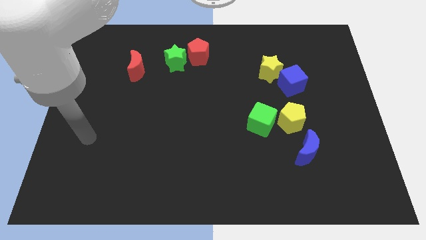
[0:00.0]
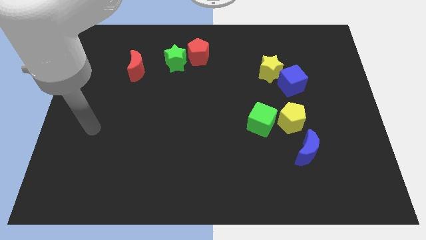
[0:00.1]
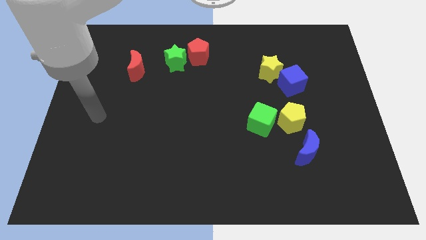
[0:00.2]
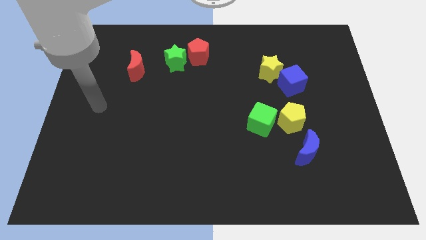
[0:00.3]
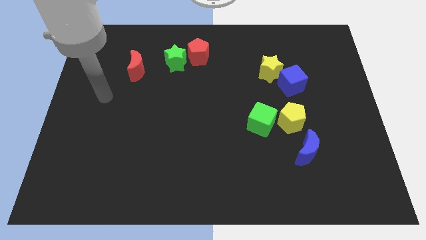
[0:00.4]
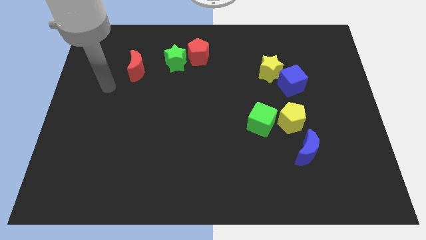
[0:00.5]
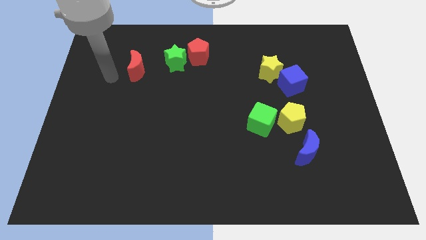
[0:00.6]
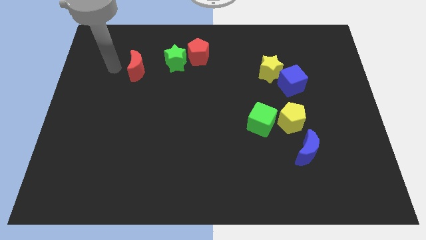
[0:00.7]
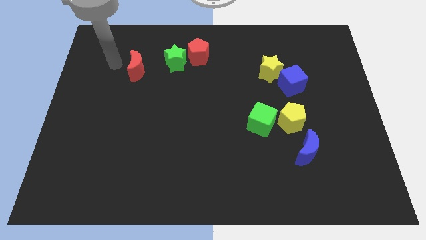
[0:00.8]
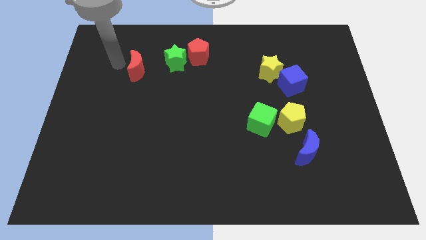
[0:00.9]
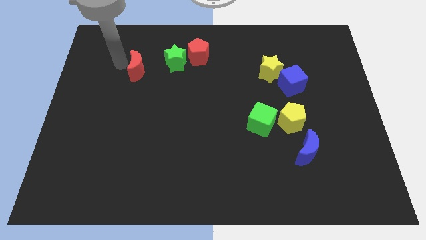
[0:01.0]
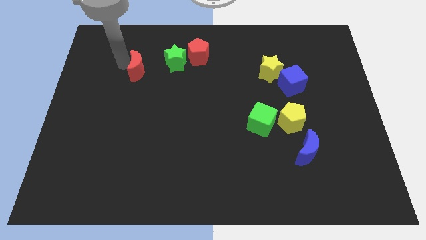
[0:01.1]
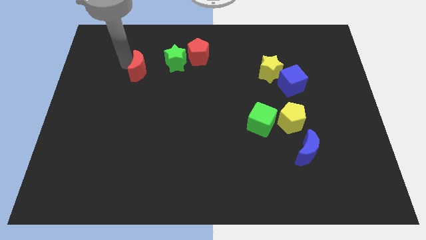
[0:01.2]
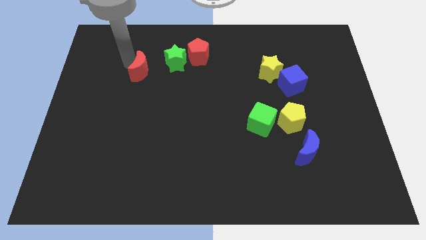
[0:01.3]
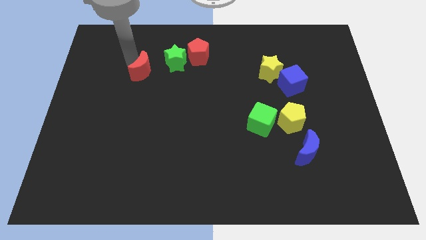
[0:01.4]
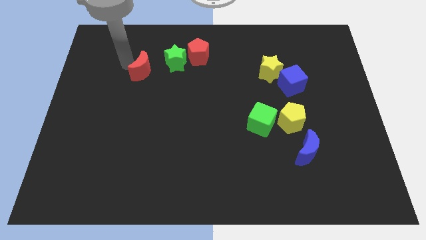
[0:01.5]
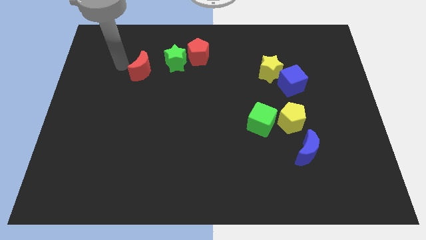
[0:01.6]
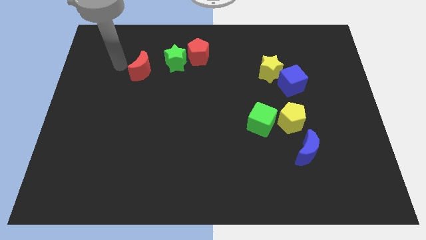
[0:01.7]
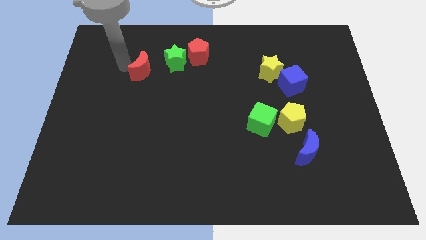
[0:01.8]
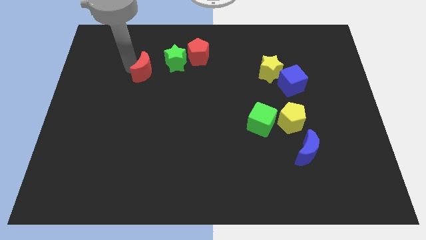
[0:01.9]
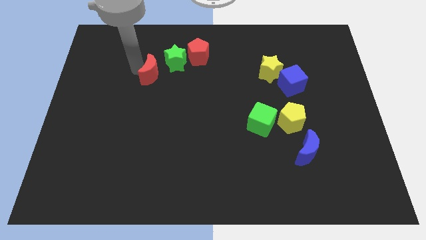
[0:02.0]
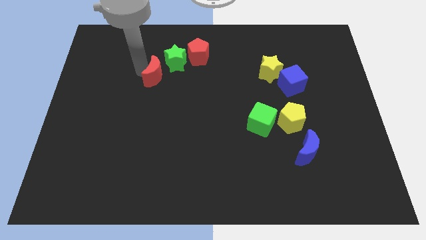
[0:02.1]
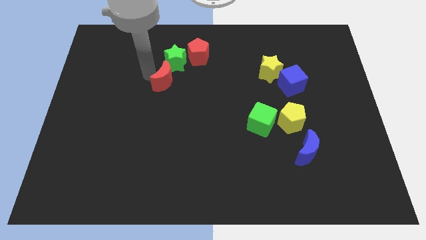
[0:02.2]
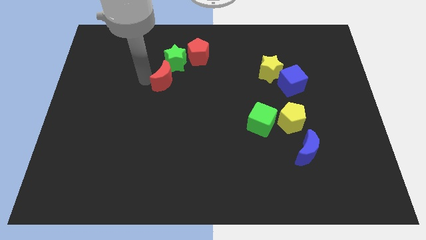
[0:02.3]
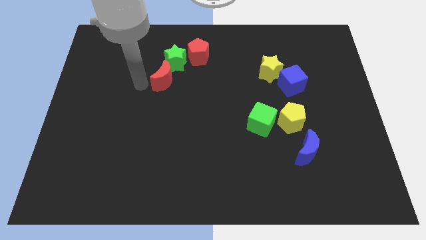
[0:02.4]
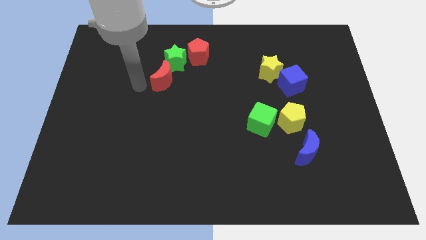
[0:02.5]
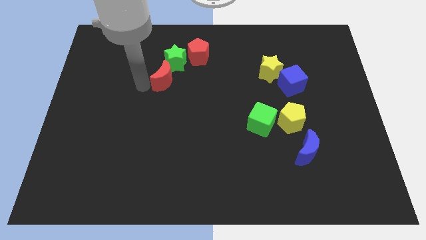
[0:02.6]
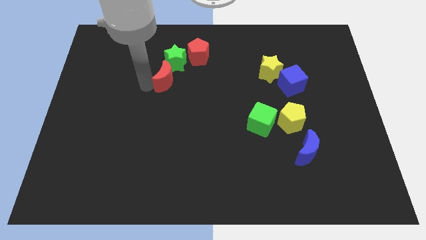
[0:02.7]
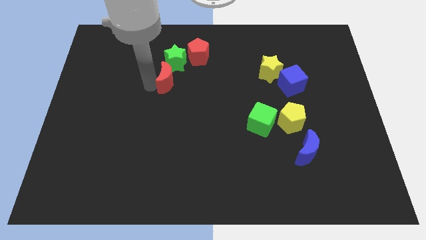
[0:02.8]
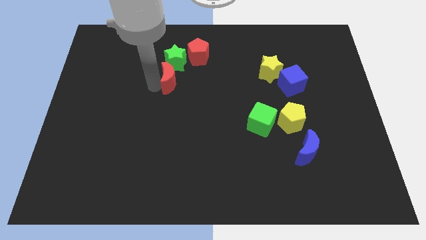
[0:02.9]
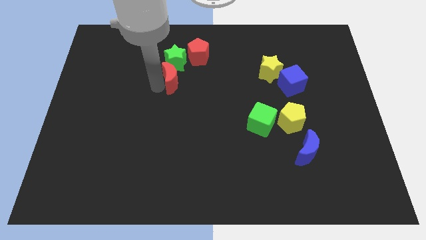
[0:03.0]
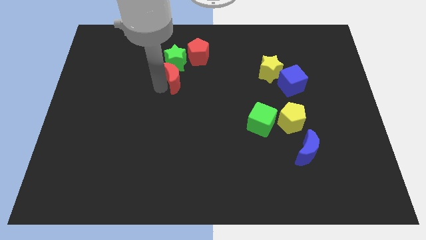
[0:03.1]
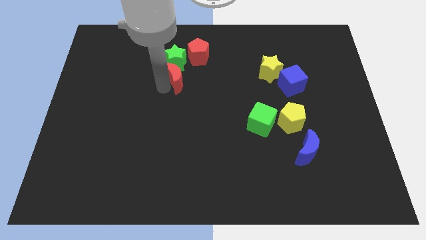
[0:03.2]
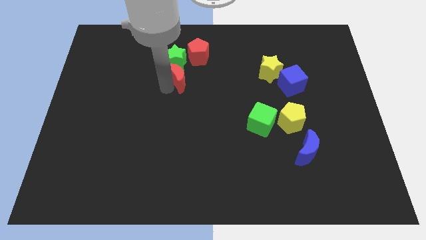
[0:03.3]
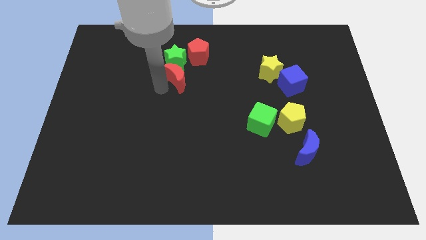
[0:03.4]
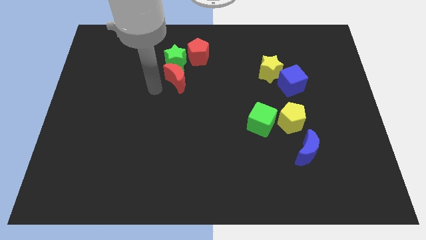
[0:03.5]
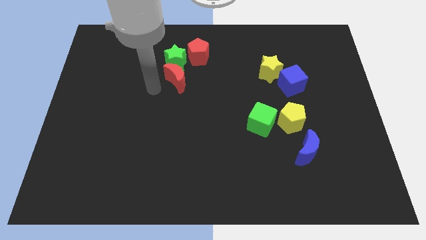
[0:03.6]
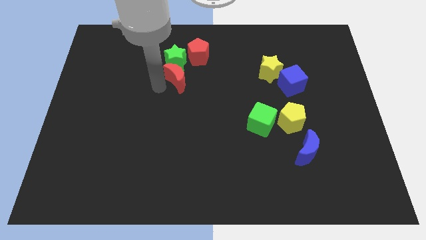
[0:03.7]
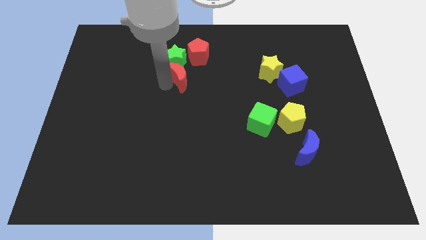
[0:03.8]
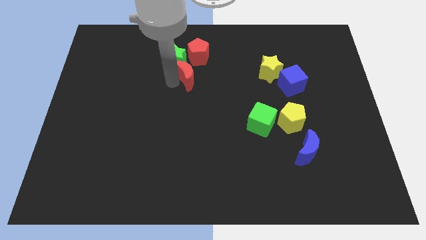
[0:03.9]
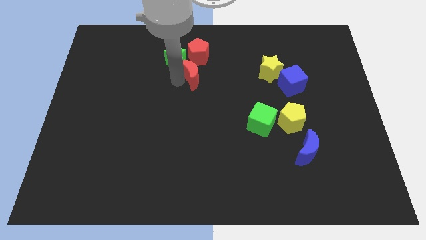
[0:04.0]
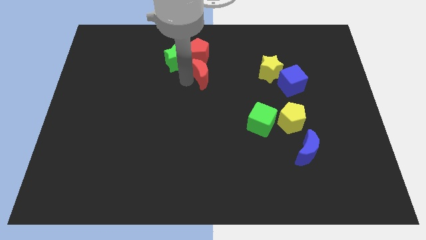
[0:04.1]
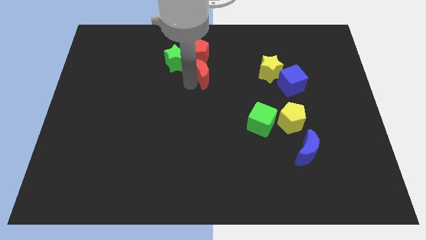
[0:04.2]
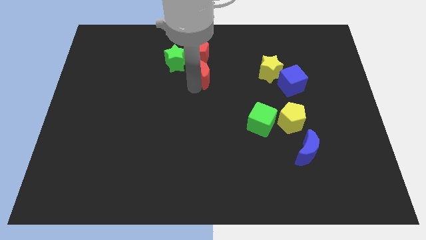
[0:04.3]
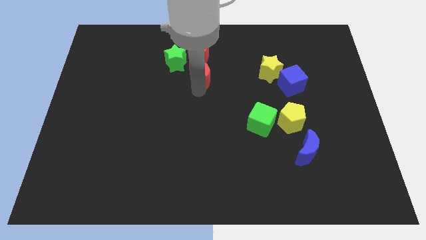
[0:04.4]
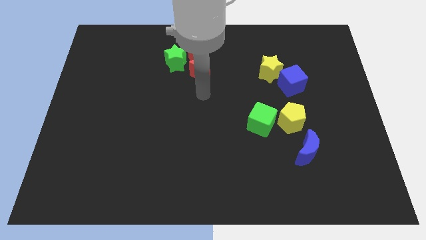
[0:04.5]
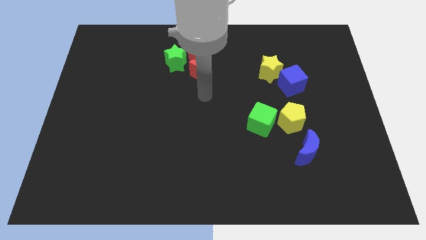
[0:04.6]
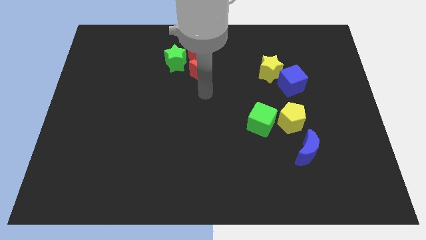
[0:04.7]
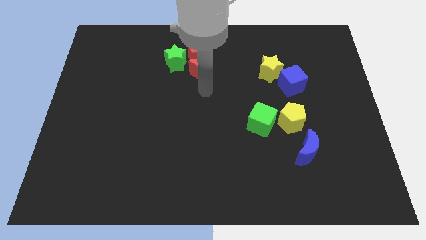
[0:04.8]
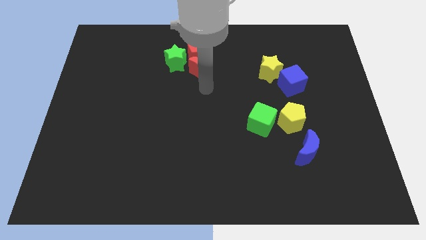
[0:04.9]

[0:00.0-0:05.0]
move the red moon towards the red pentagon

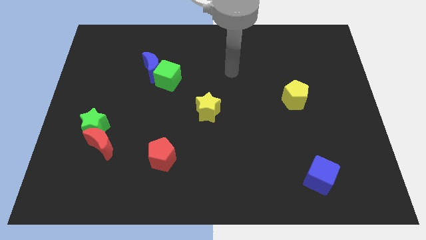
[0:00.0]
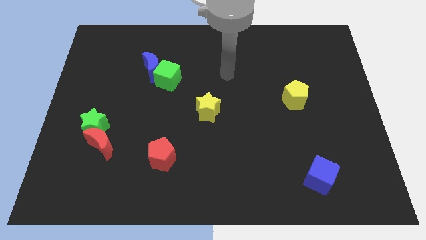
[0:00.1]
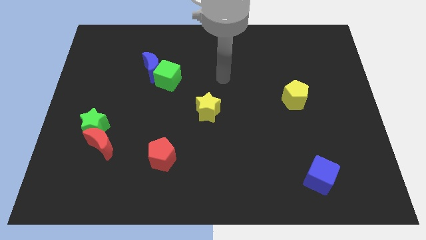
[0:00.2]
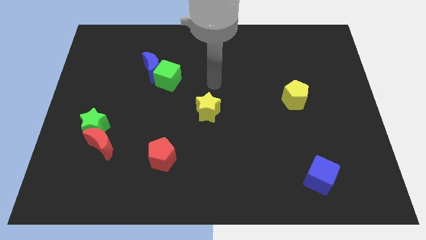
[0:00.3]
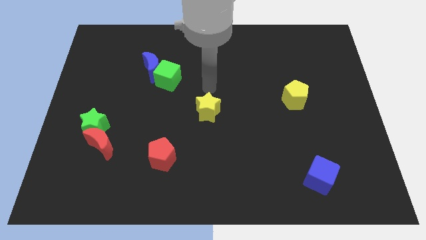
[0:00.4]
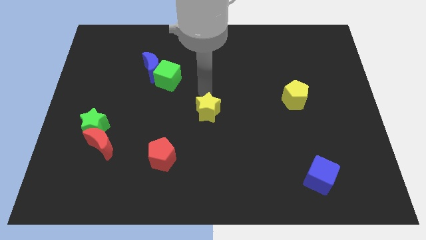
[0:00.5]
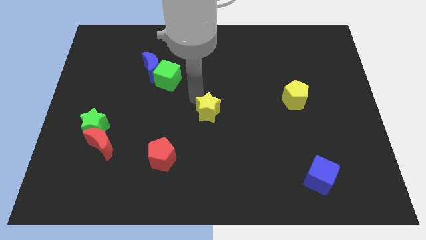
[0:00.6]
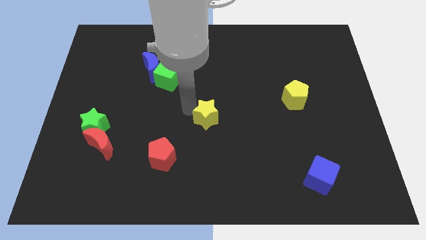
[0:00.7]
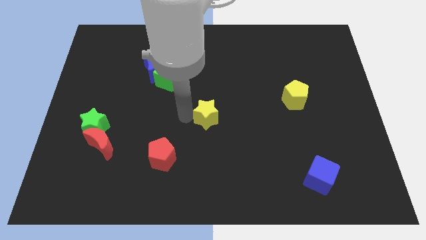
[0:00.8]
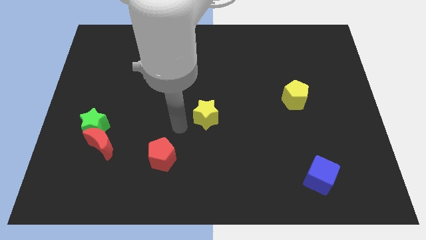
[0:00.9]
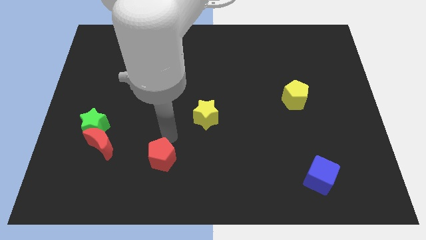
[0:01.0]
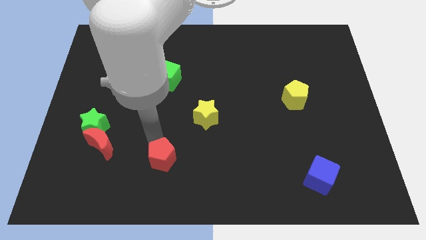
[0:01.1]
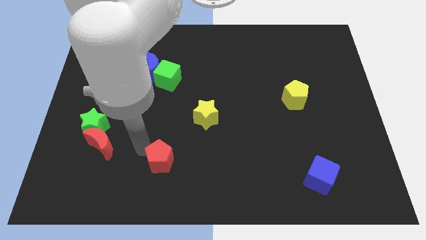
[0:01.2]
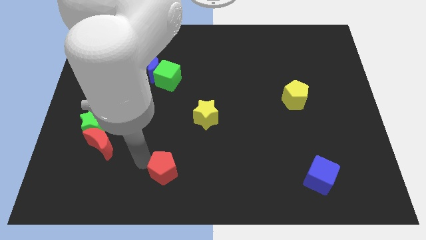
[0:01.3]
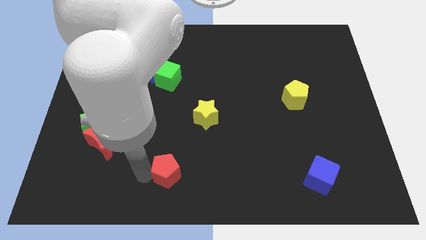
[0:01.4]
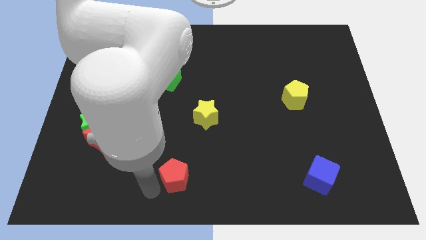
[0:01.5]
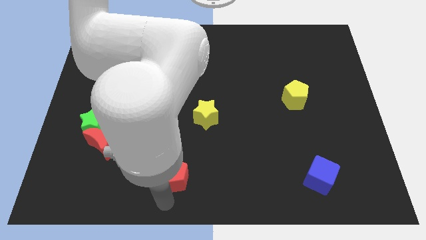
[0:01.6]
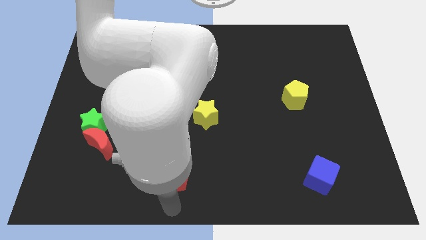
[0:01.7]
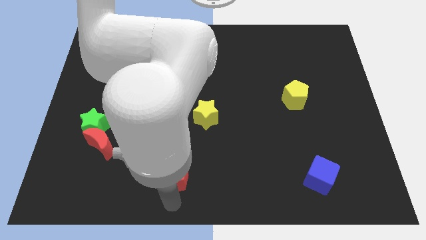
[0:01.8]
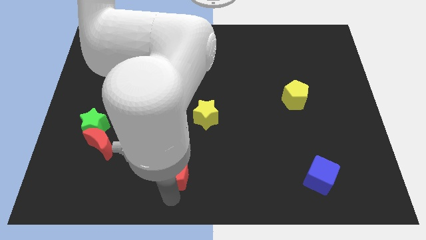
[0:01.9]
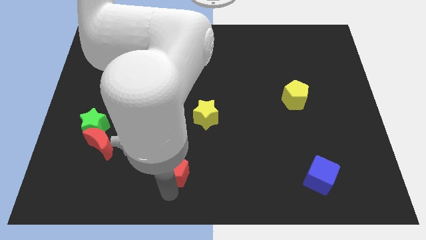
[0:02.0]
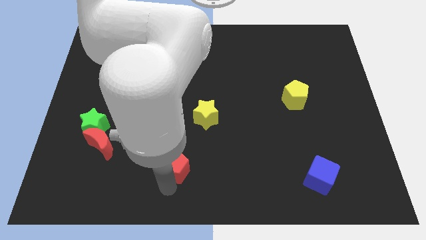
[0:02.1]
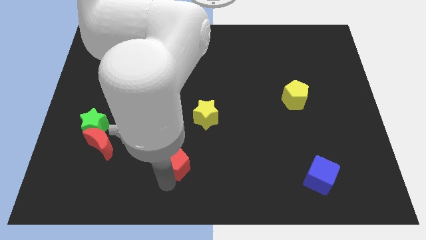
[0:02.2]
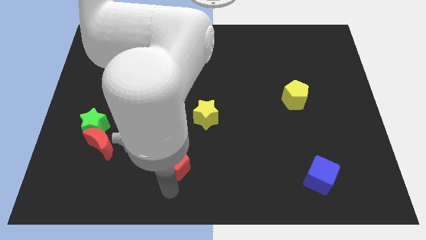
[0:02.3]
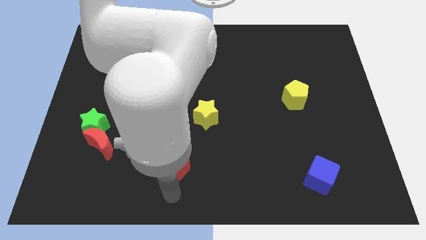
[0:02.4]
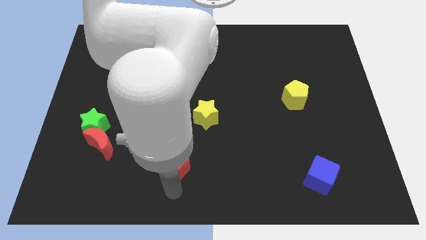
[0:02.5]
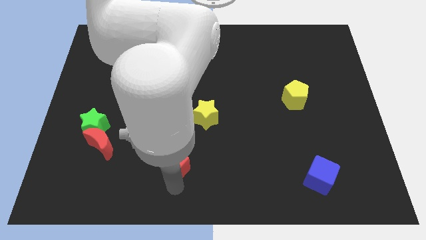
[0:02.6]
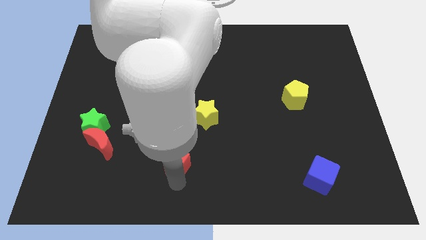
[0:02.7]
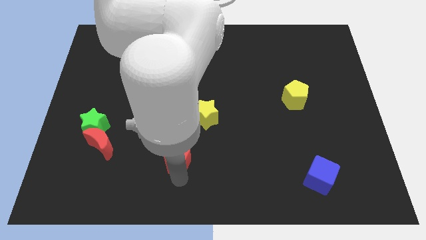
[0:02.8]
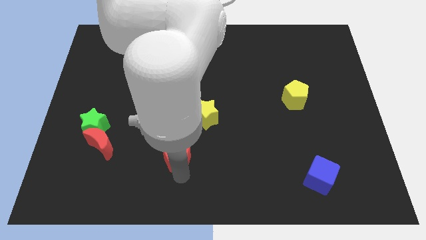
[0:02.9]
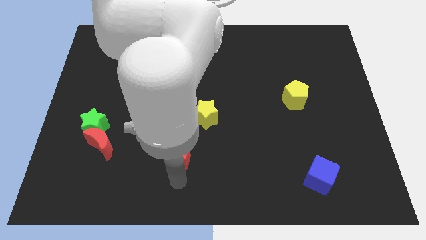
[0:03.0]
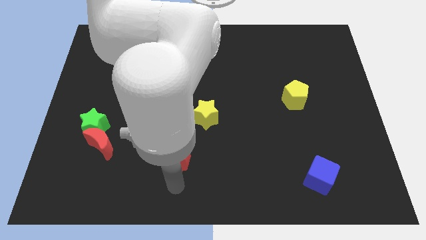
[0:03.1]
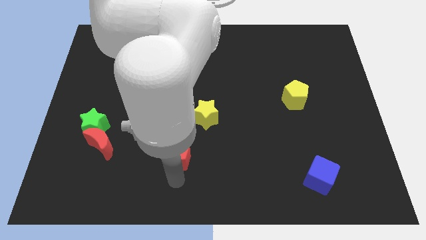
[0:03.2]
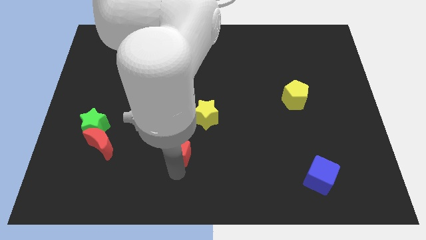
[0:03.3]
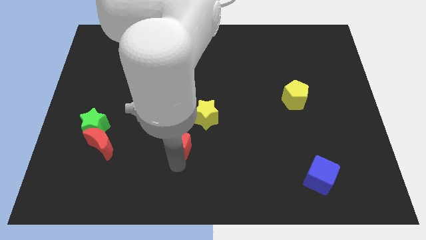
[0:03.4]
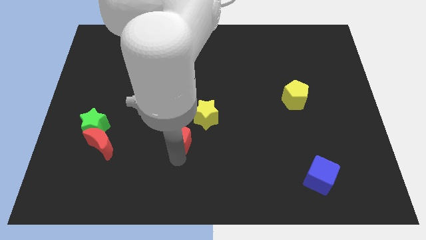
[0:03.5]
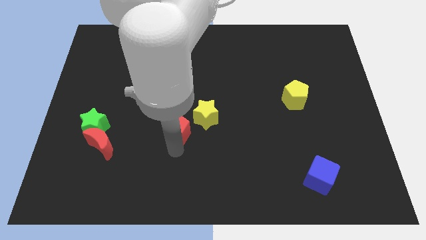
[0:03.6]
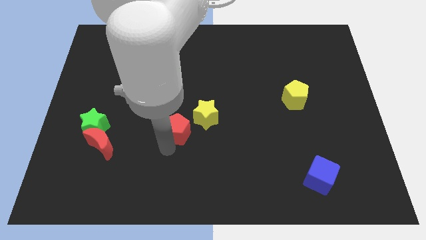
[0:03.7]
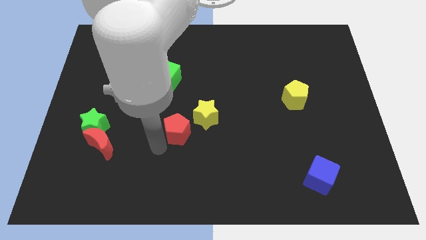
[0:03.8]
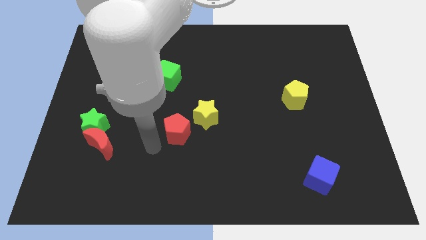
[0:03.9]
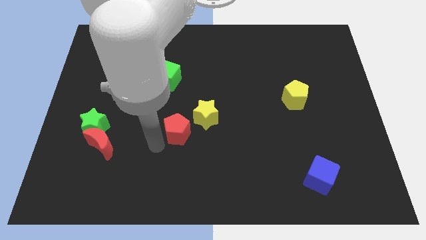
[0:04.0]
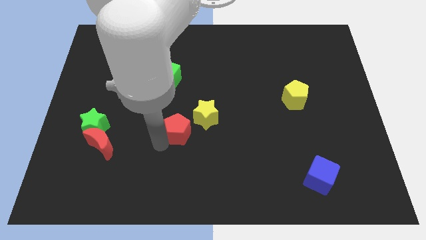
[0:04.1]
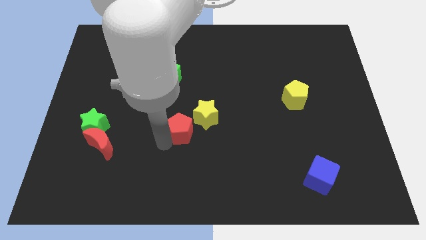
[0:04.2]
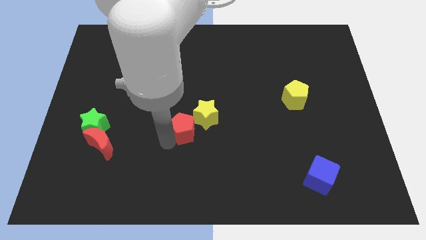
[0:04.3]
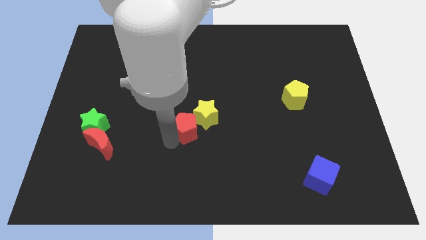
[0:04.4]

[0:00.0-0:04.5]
push the red pentagon next to the yellow star
